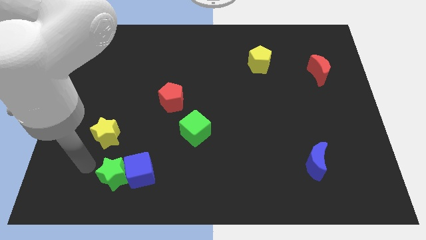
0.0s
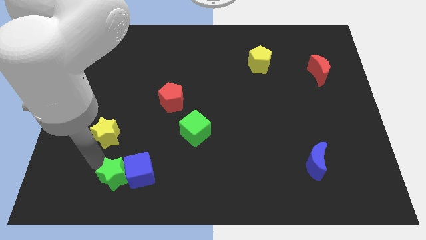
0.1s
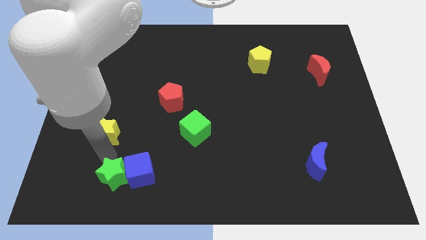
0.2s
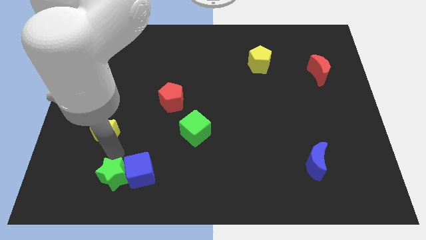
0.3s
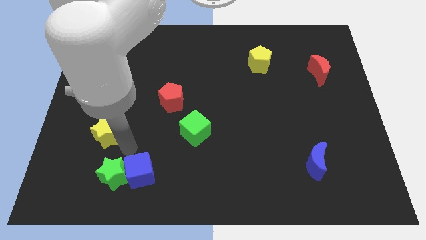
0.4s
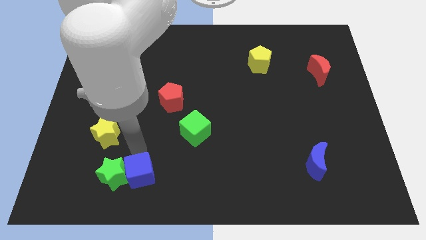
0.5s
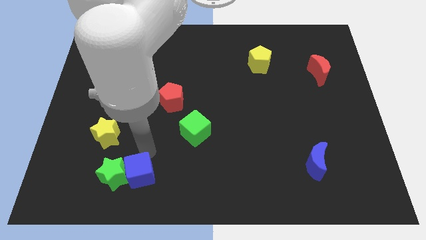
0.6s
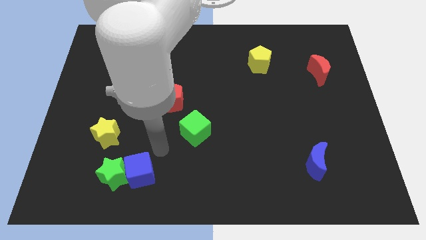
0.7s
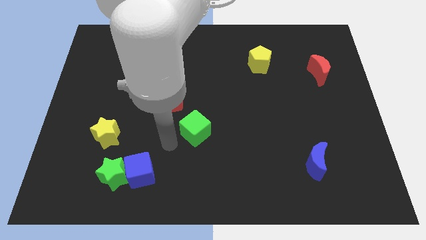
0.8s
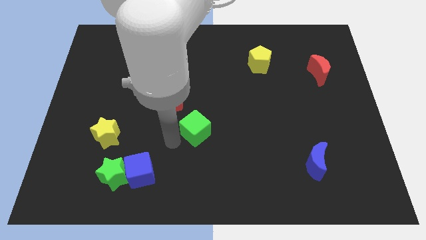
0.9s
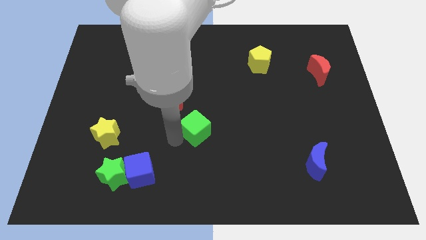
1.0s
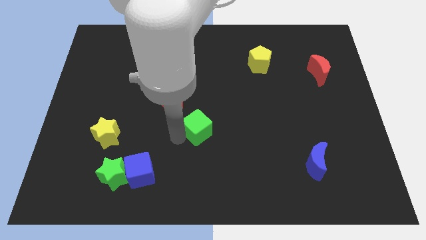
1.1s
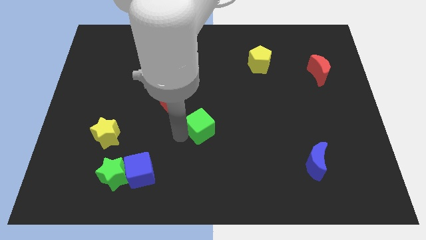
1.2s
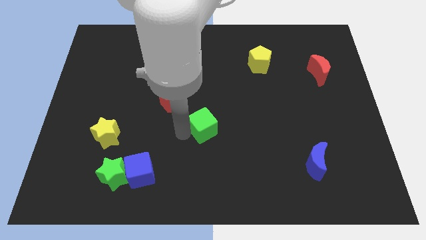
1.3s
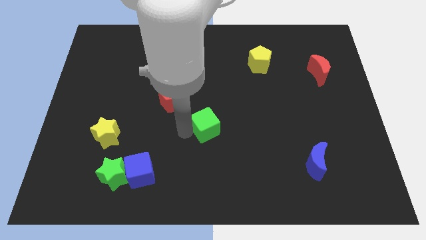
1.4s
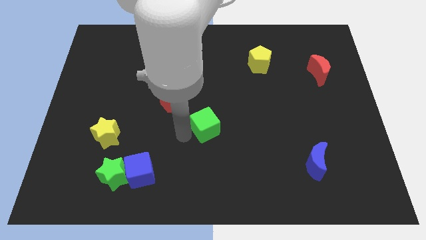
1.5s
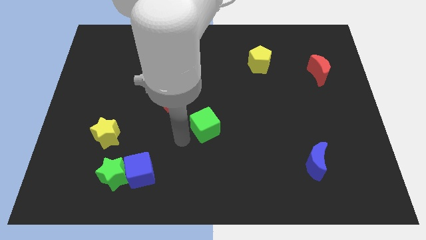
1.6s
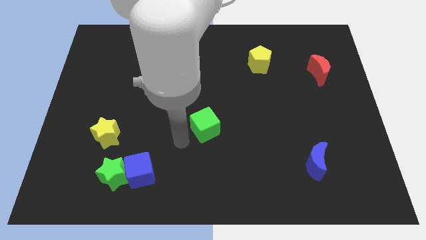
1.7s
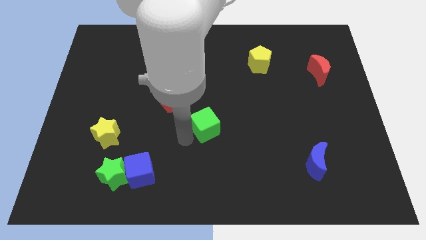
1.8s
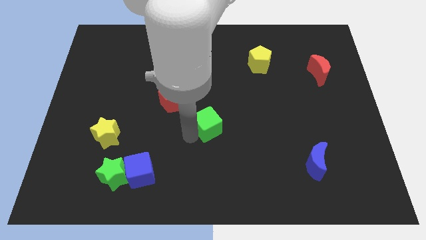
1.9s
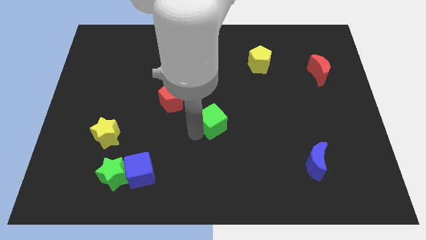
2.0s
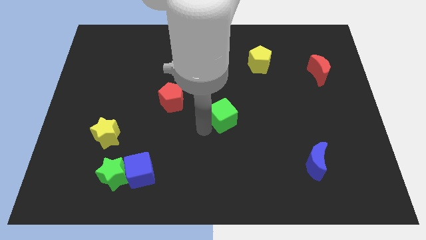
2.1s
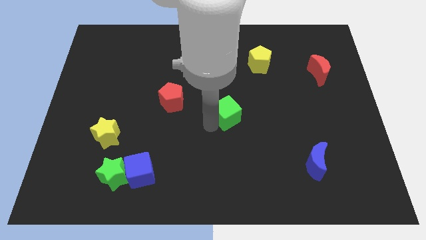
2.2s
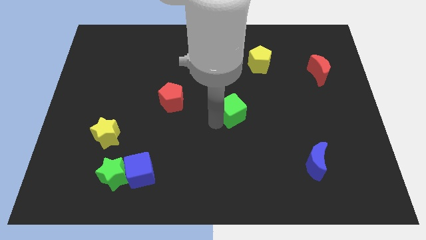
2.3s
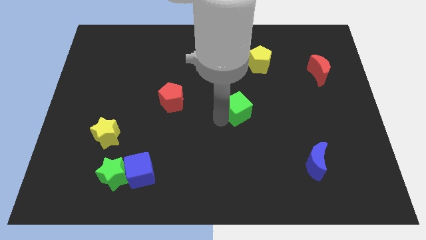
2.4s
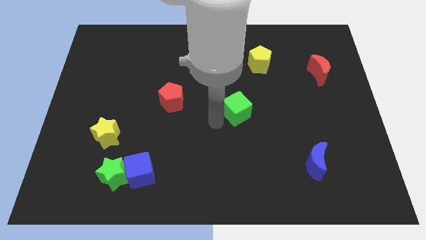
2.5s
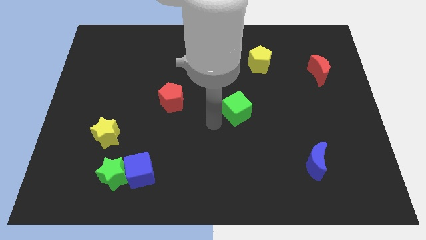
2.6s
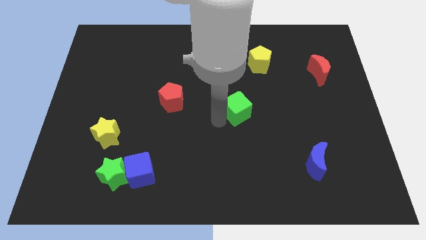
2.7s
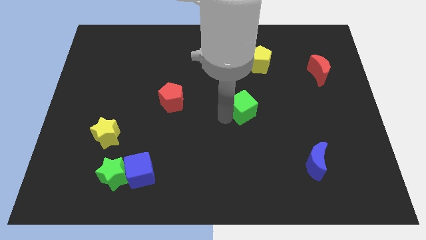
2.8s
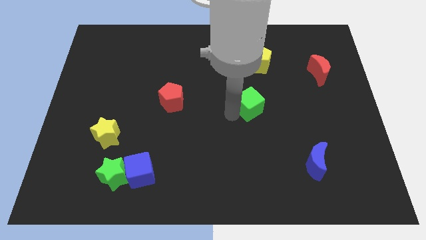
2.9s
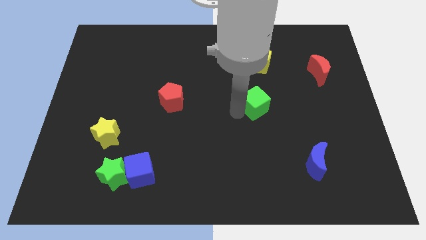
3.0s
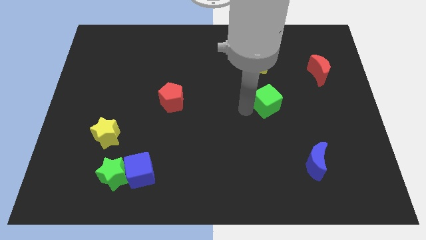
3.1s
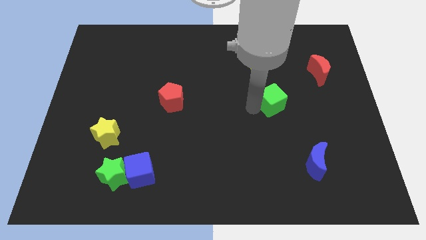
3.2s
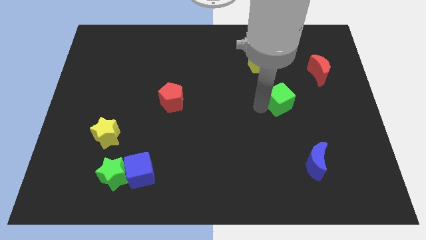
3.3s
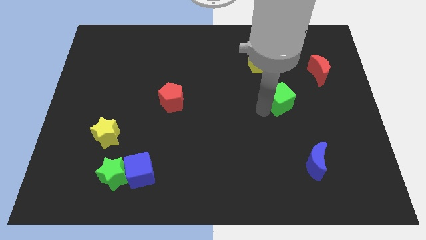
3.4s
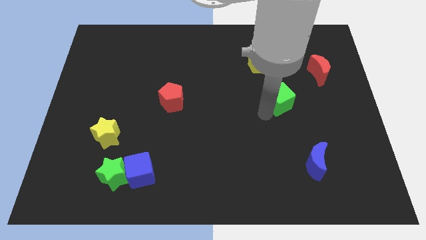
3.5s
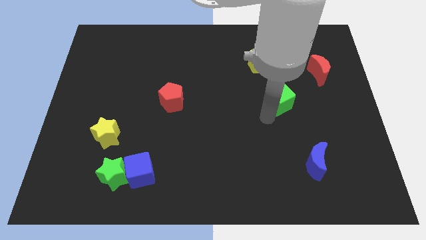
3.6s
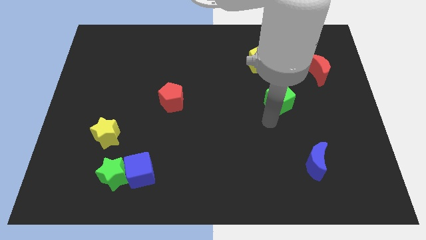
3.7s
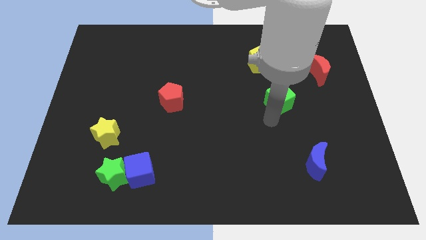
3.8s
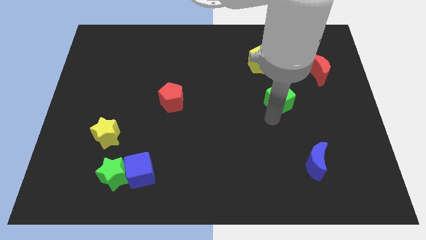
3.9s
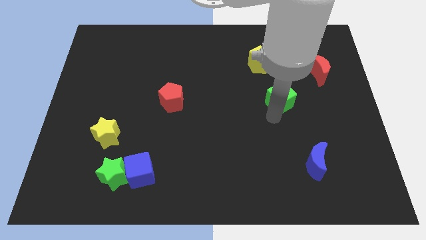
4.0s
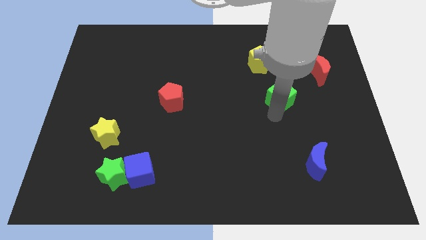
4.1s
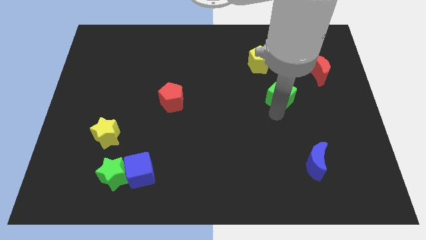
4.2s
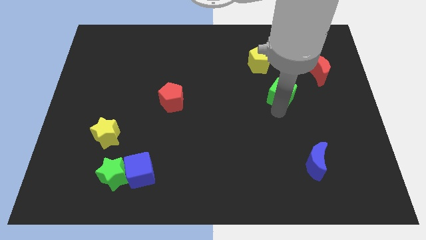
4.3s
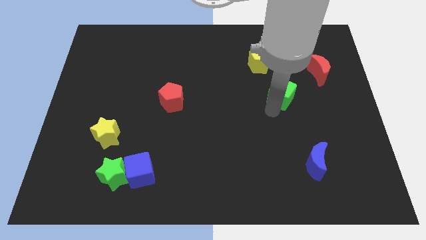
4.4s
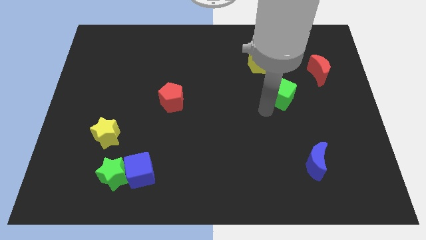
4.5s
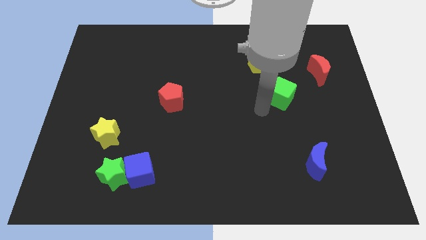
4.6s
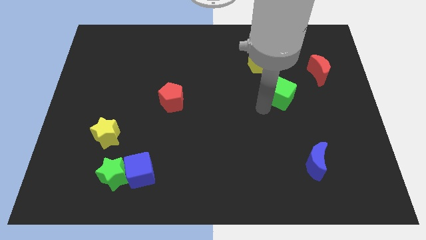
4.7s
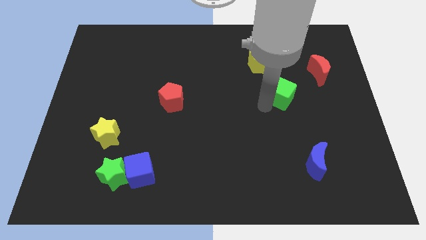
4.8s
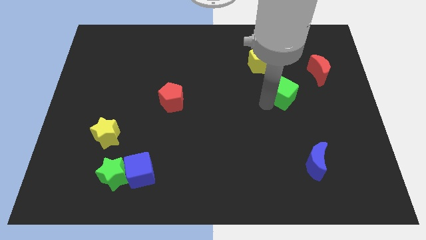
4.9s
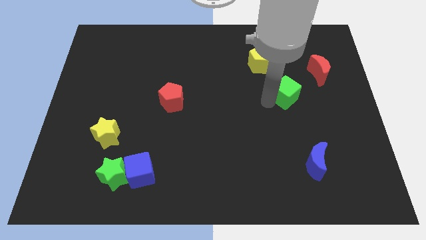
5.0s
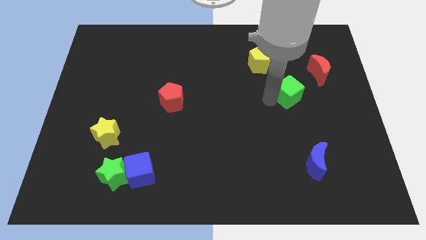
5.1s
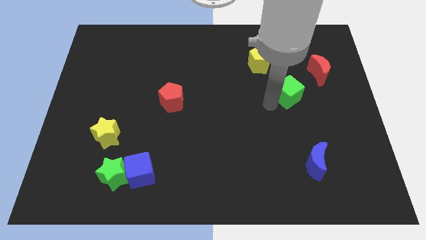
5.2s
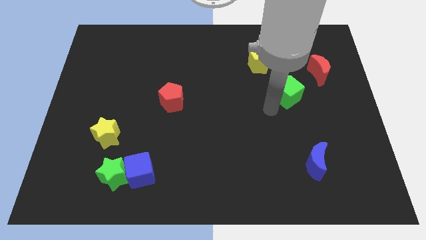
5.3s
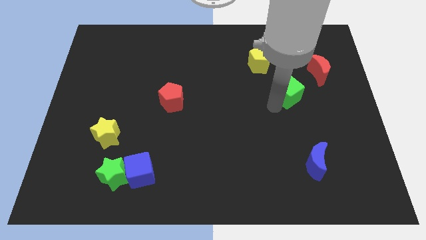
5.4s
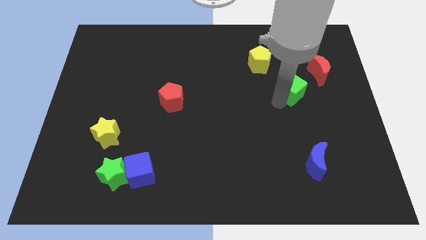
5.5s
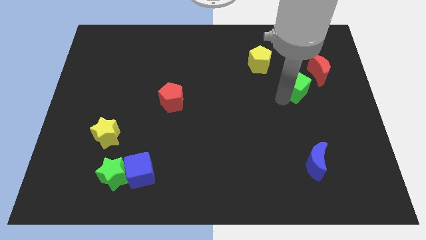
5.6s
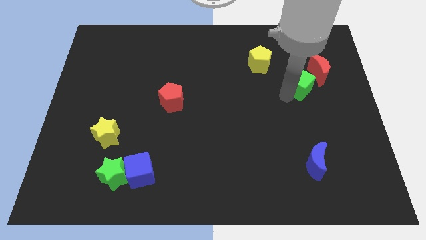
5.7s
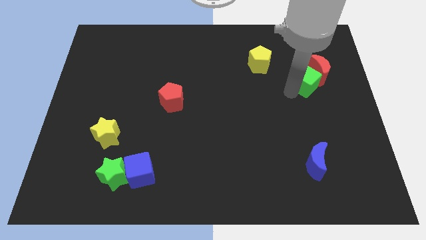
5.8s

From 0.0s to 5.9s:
put the green cube towards the red moon

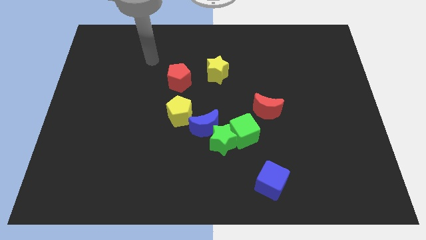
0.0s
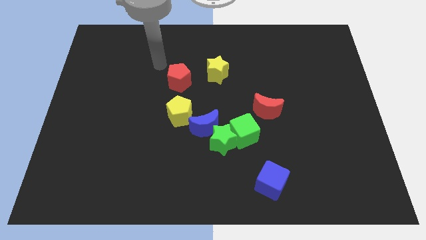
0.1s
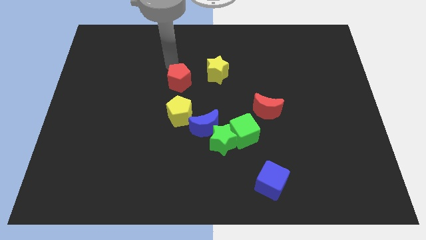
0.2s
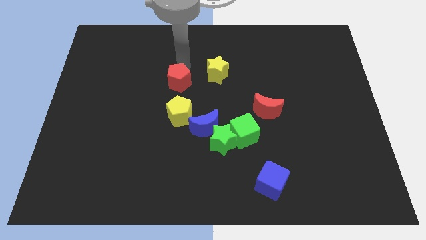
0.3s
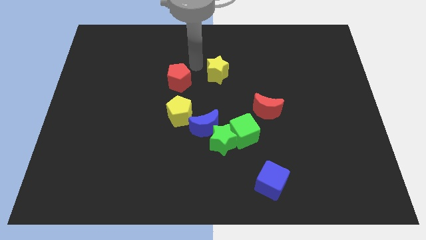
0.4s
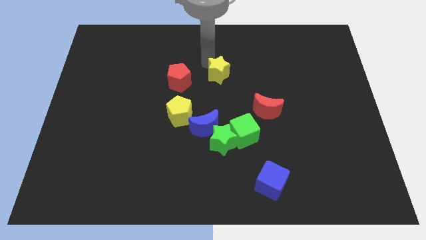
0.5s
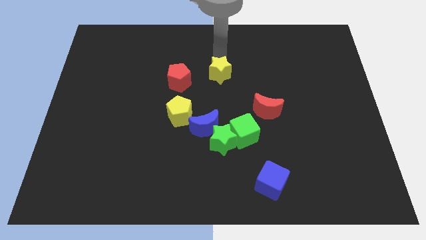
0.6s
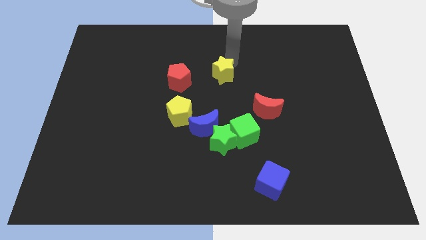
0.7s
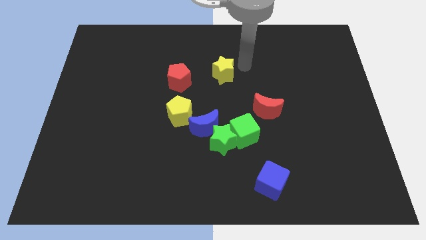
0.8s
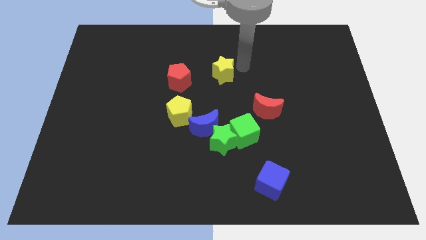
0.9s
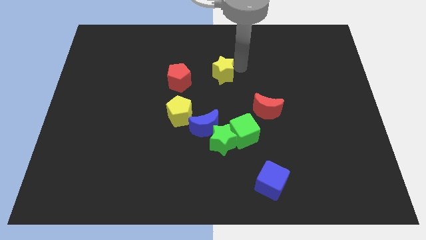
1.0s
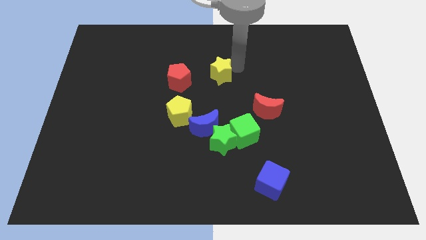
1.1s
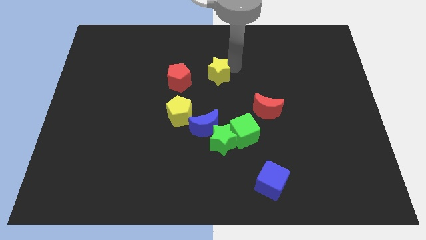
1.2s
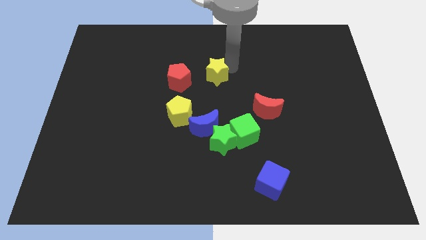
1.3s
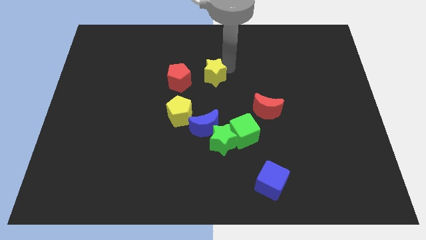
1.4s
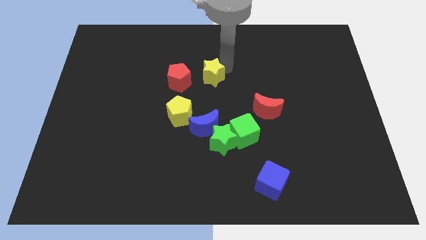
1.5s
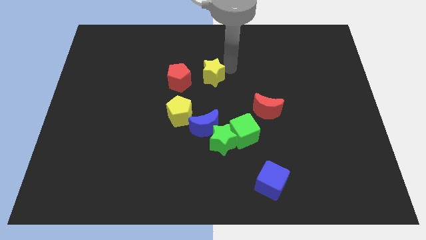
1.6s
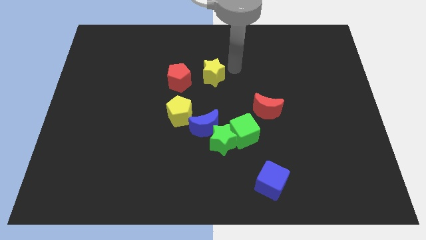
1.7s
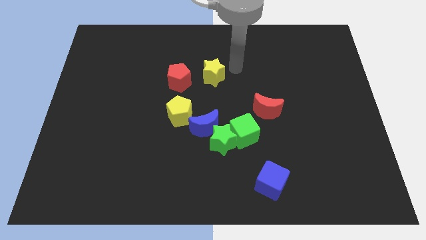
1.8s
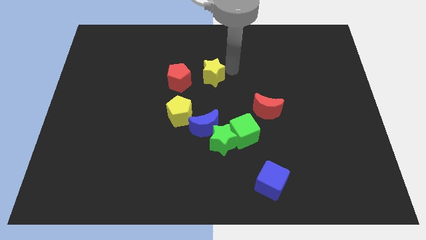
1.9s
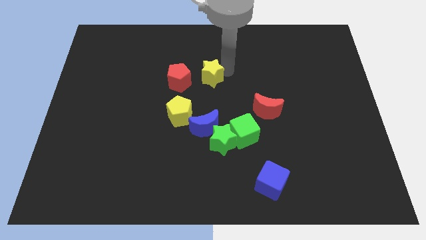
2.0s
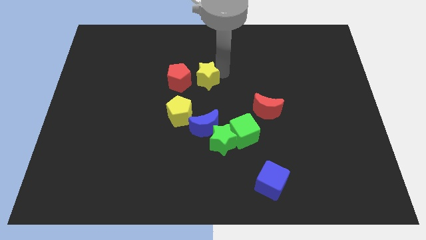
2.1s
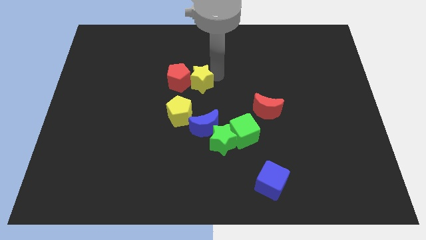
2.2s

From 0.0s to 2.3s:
push the yellow star towards the red pentagon
